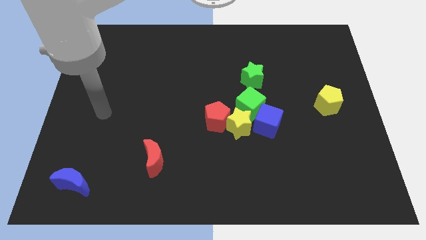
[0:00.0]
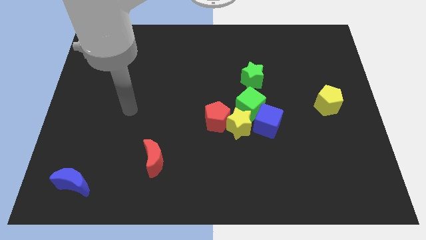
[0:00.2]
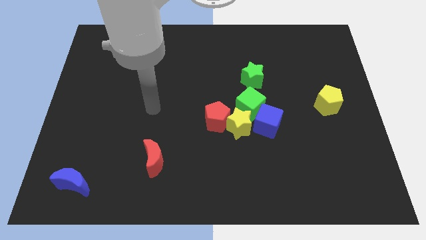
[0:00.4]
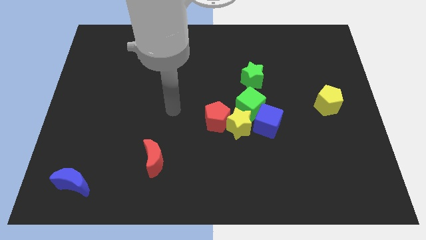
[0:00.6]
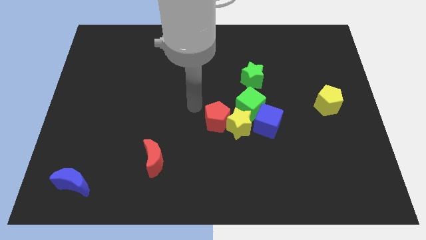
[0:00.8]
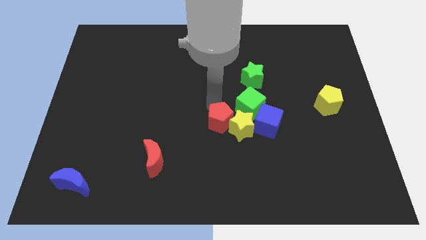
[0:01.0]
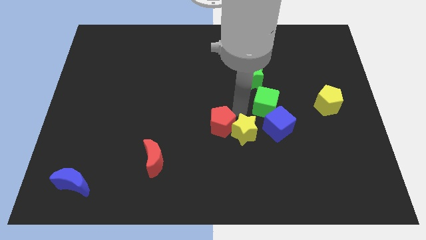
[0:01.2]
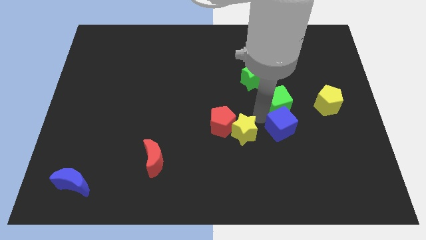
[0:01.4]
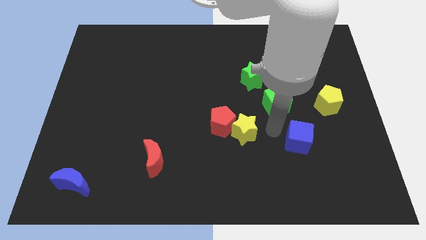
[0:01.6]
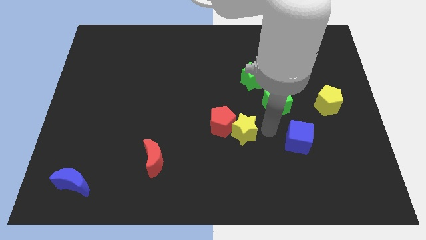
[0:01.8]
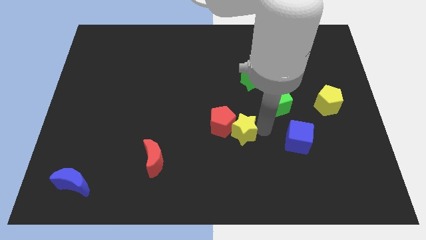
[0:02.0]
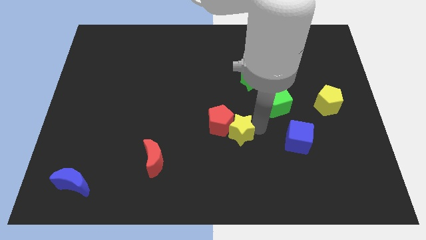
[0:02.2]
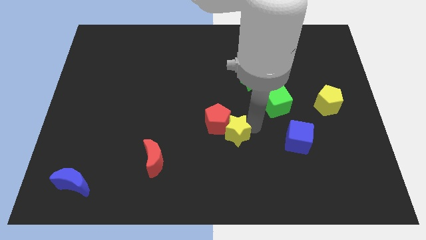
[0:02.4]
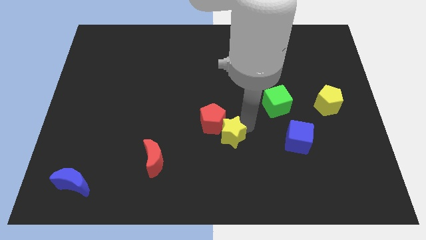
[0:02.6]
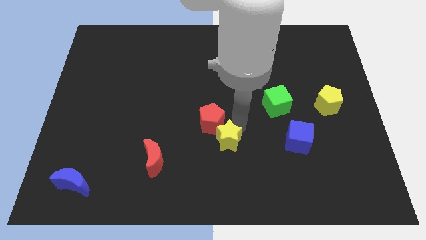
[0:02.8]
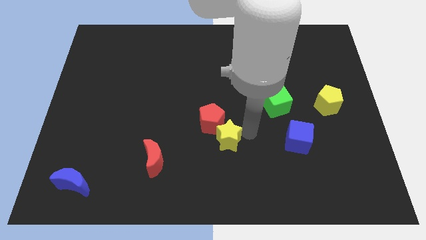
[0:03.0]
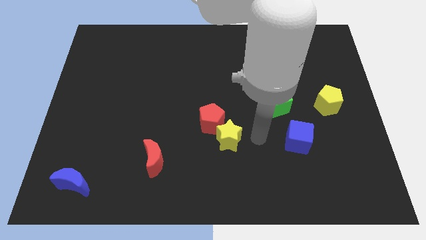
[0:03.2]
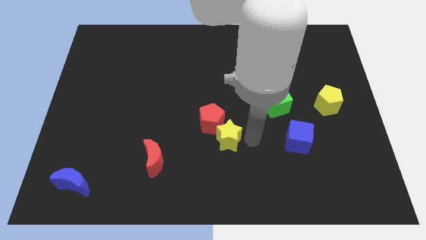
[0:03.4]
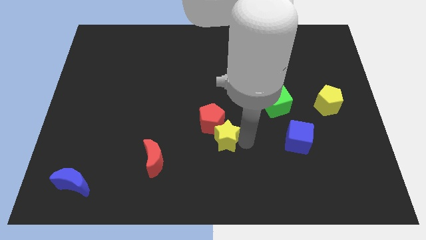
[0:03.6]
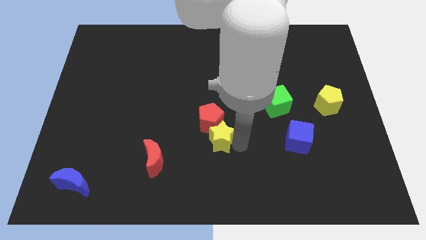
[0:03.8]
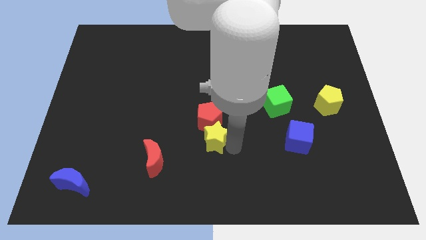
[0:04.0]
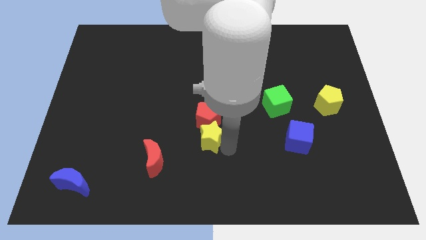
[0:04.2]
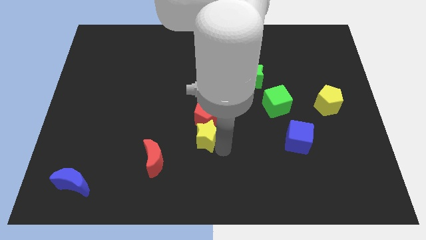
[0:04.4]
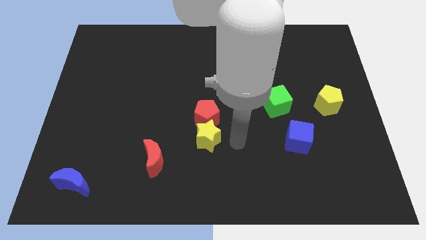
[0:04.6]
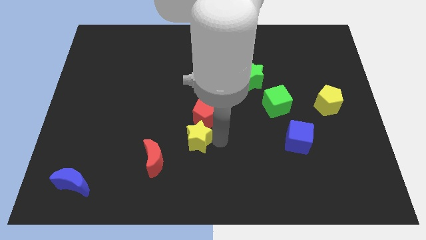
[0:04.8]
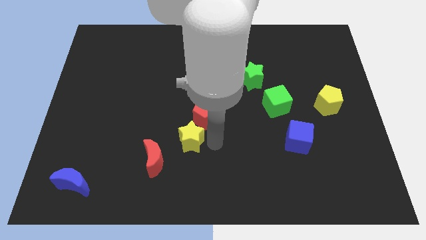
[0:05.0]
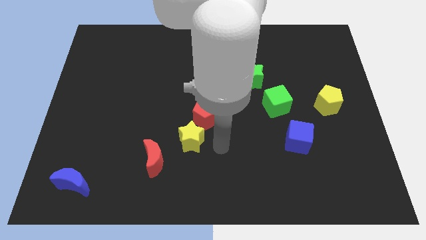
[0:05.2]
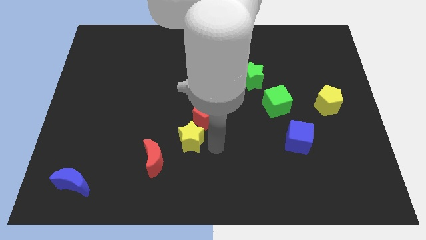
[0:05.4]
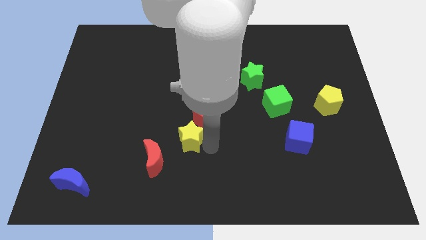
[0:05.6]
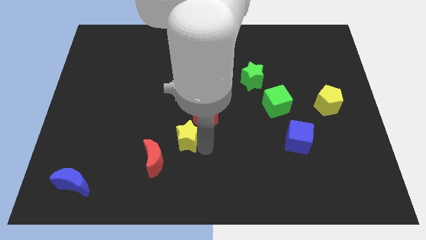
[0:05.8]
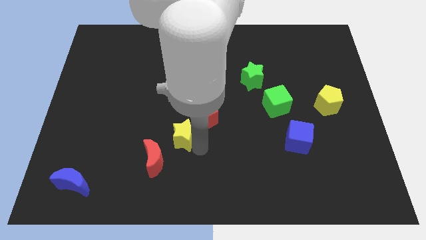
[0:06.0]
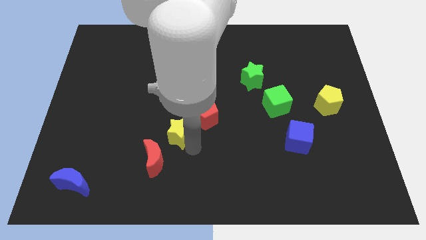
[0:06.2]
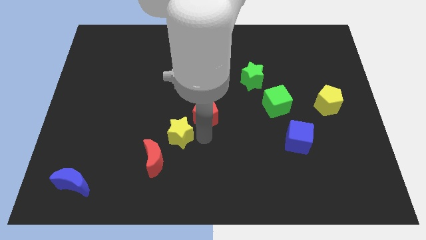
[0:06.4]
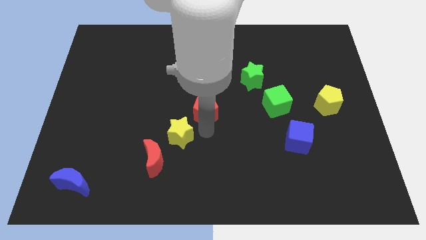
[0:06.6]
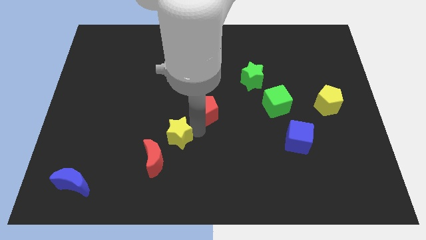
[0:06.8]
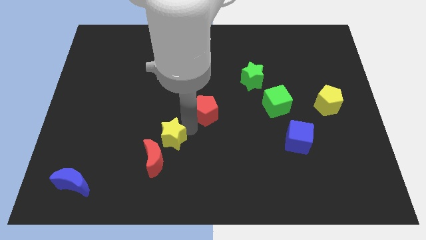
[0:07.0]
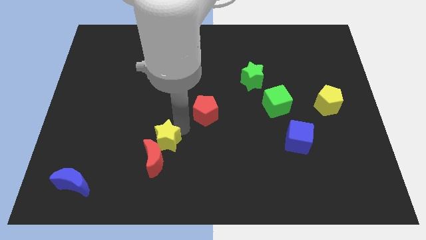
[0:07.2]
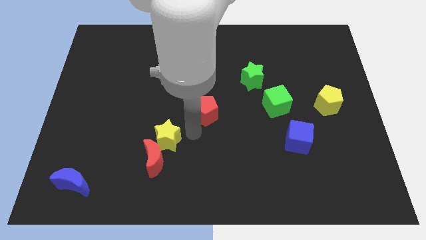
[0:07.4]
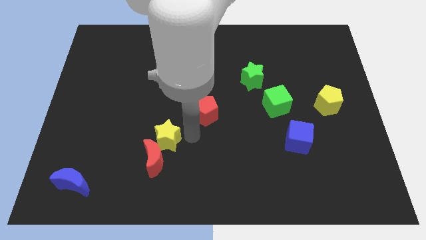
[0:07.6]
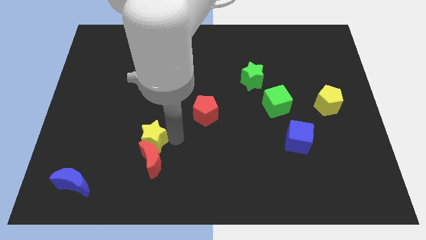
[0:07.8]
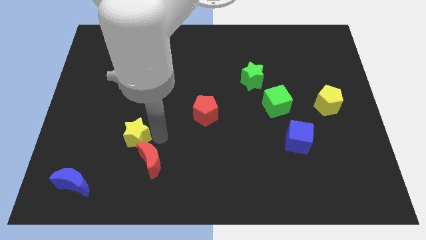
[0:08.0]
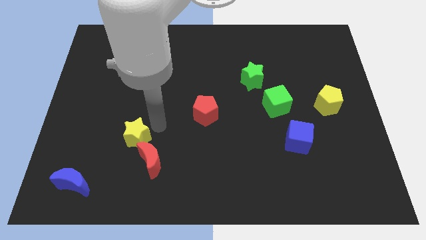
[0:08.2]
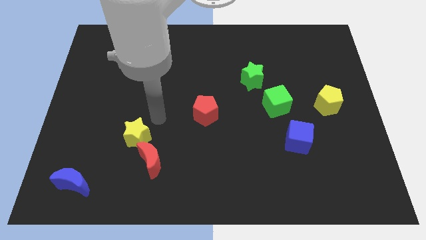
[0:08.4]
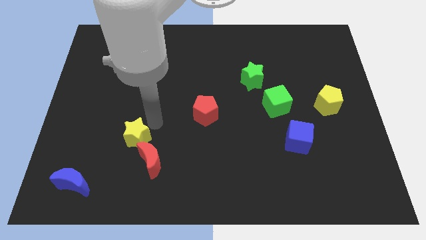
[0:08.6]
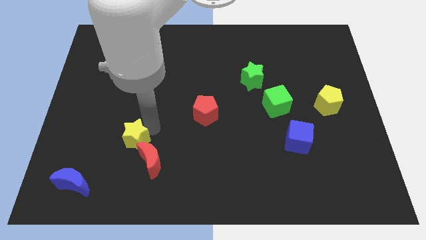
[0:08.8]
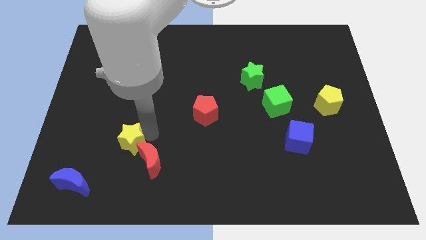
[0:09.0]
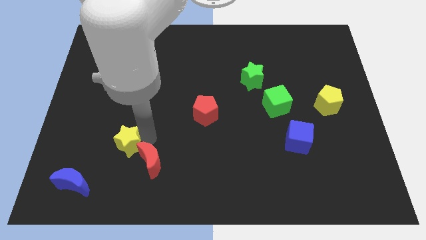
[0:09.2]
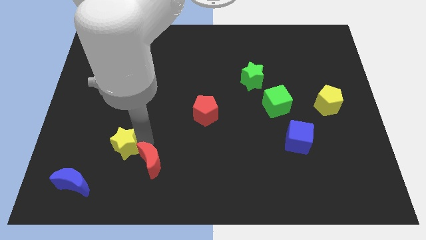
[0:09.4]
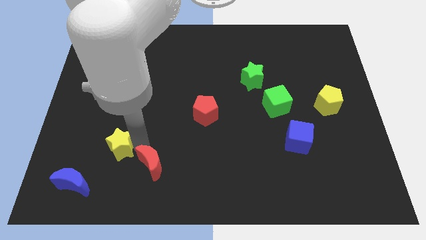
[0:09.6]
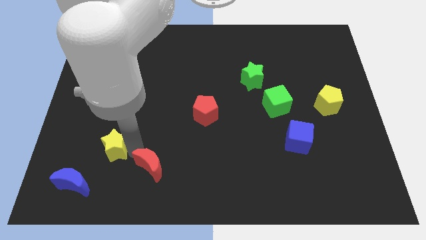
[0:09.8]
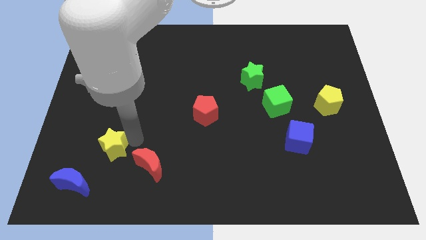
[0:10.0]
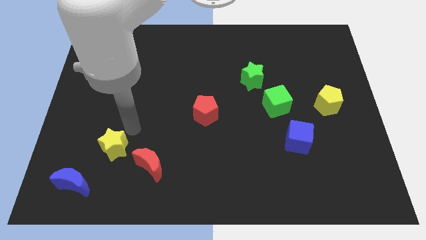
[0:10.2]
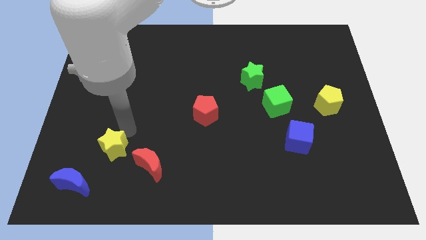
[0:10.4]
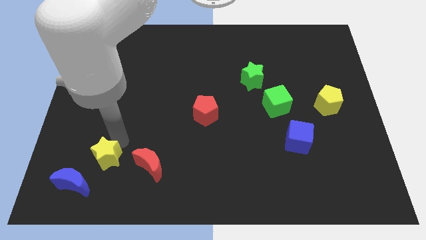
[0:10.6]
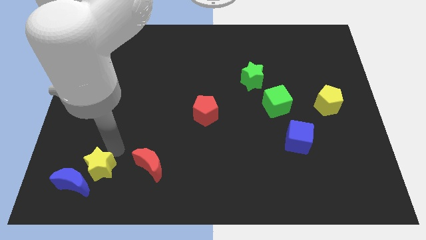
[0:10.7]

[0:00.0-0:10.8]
push the yellow star to the blue moon

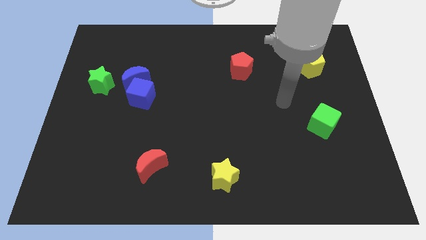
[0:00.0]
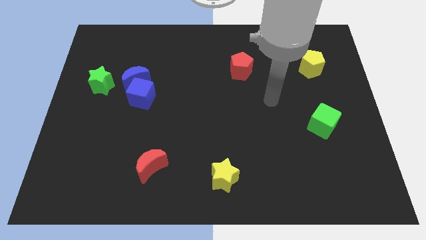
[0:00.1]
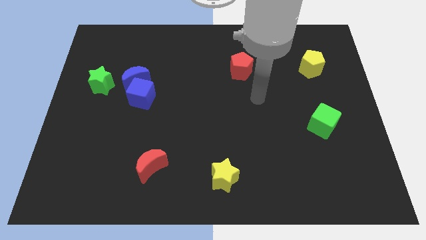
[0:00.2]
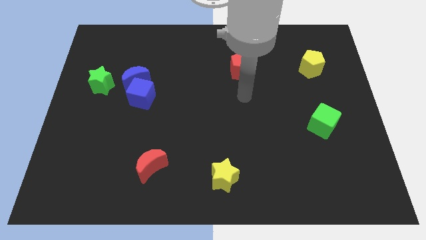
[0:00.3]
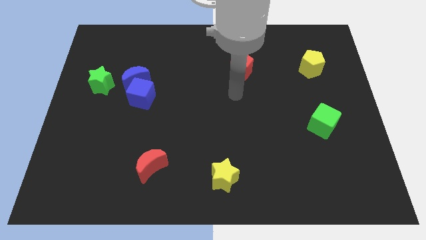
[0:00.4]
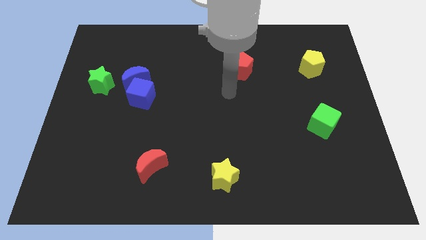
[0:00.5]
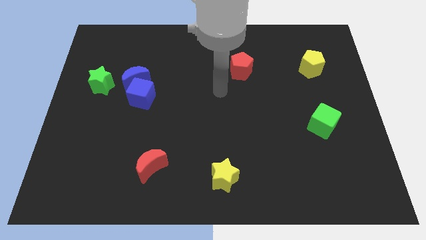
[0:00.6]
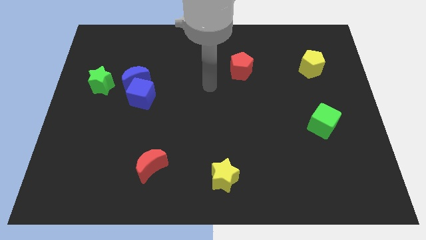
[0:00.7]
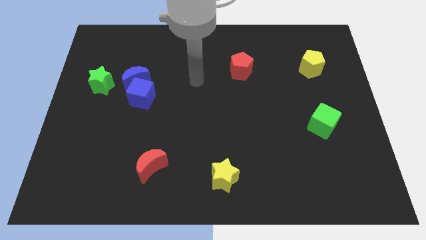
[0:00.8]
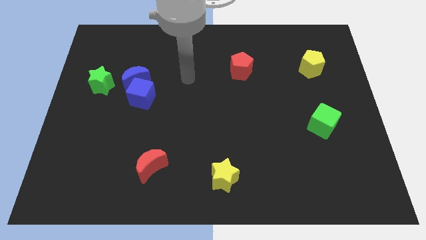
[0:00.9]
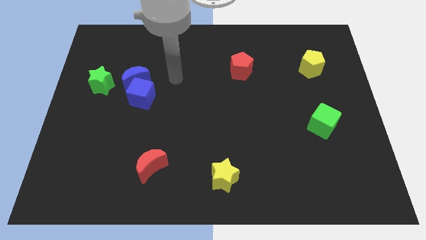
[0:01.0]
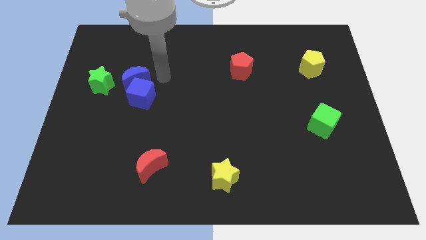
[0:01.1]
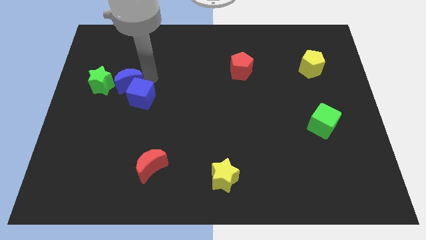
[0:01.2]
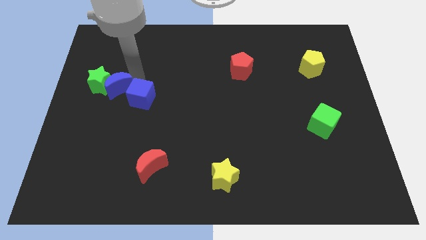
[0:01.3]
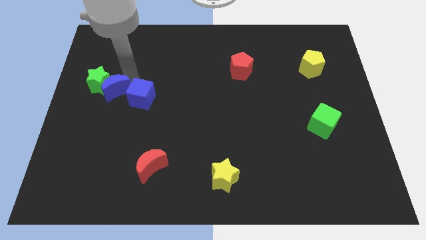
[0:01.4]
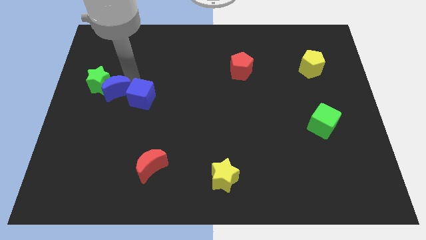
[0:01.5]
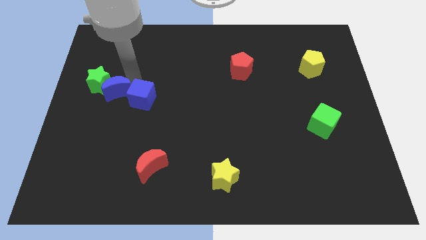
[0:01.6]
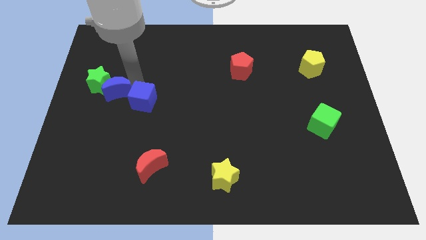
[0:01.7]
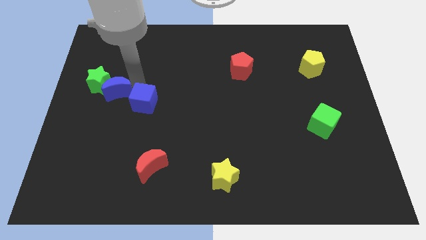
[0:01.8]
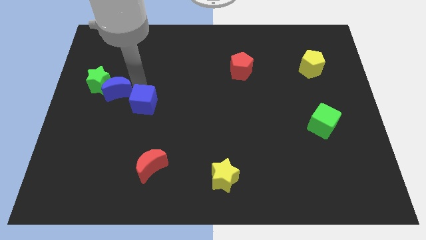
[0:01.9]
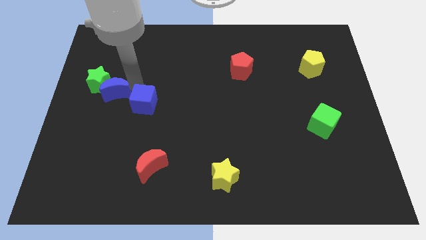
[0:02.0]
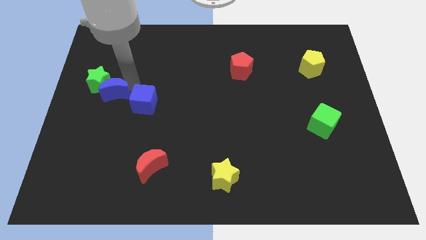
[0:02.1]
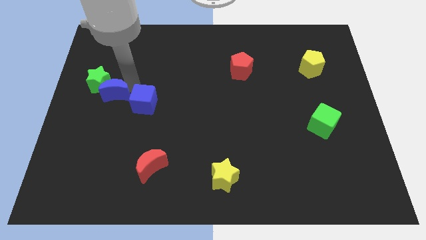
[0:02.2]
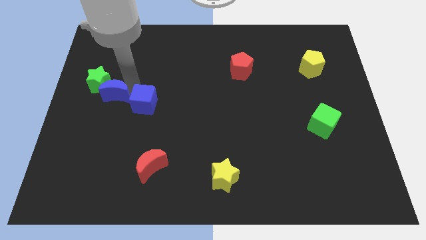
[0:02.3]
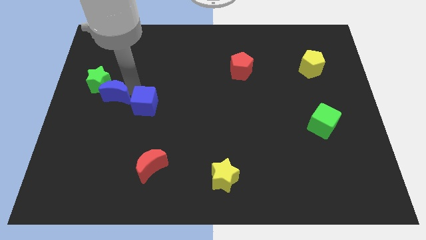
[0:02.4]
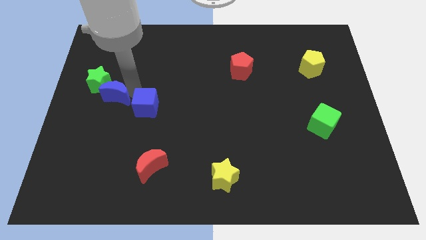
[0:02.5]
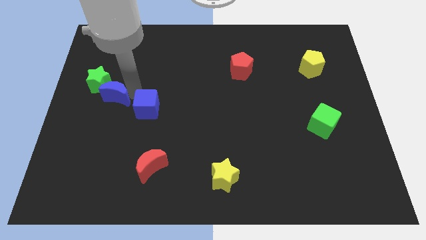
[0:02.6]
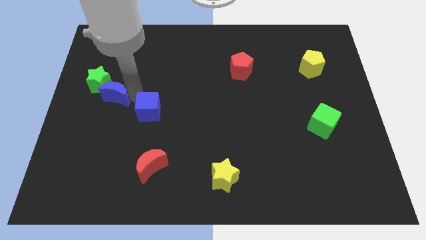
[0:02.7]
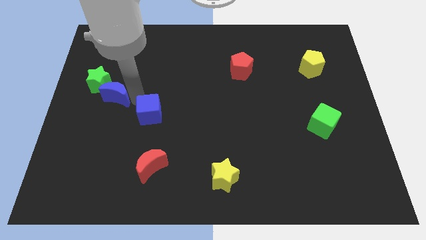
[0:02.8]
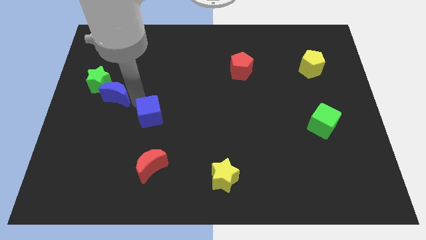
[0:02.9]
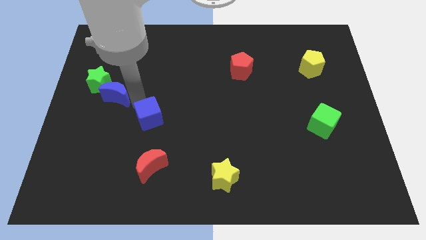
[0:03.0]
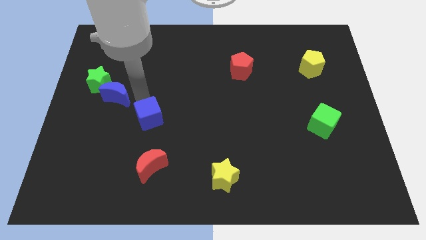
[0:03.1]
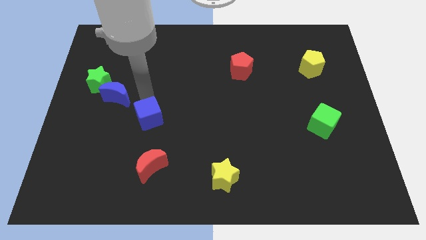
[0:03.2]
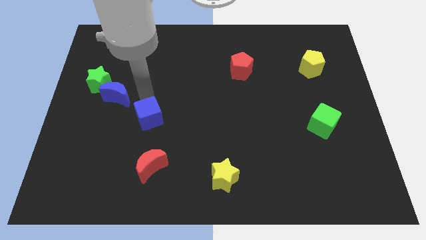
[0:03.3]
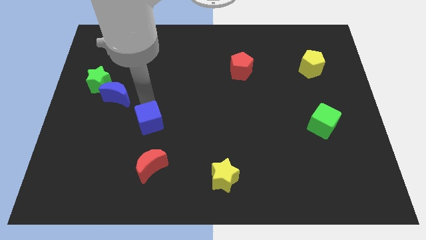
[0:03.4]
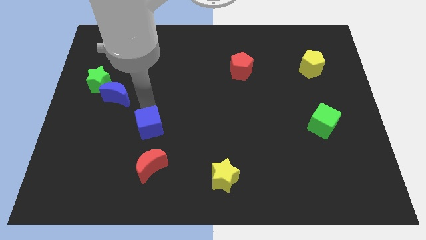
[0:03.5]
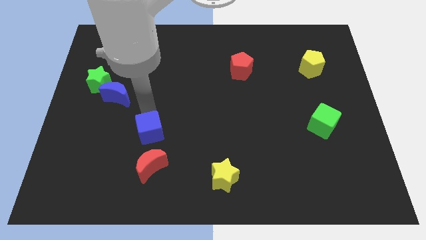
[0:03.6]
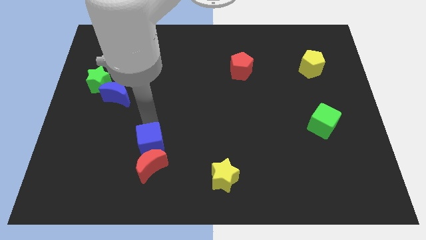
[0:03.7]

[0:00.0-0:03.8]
slide the blue cube next to the red moon
